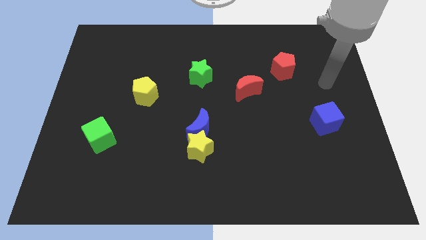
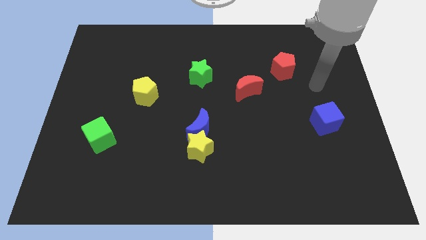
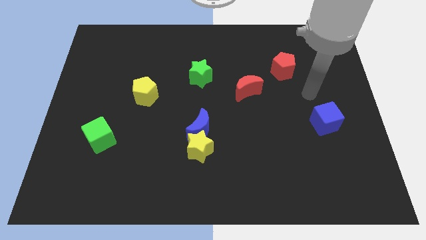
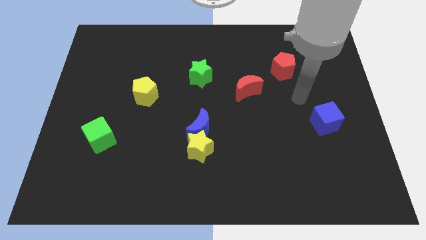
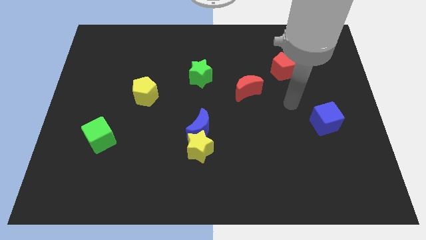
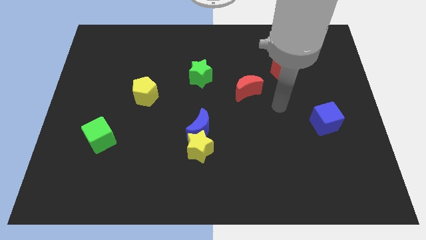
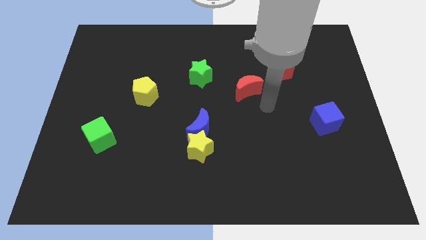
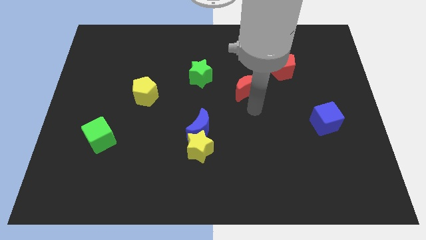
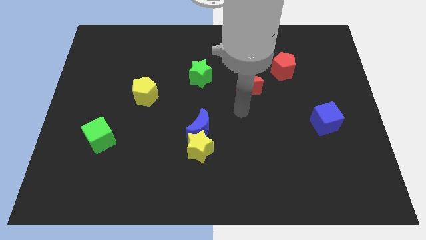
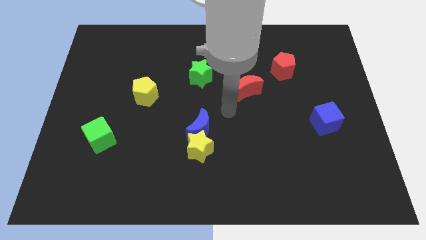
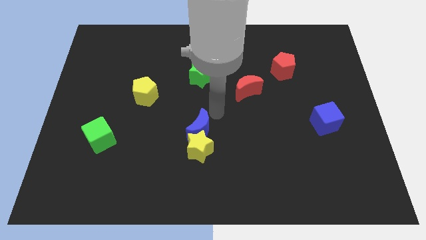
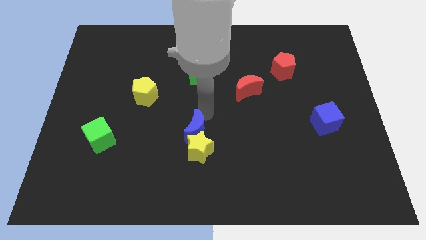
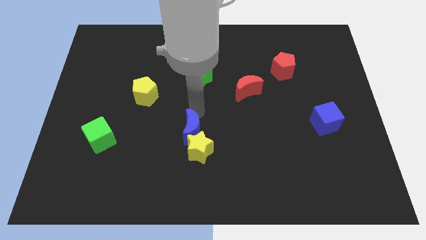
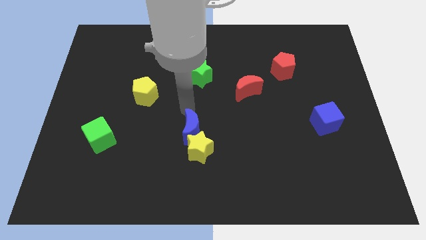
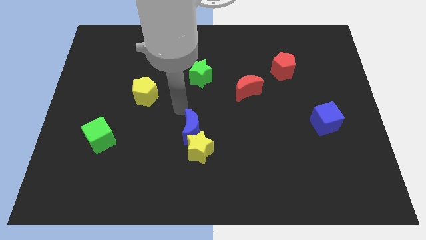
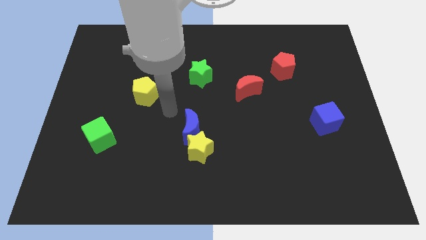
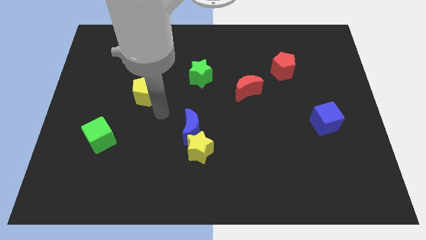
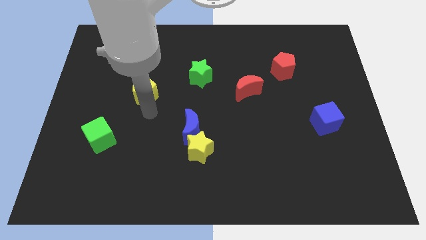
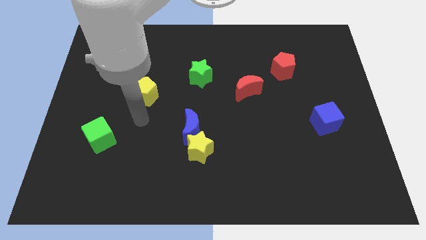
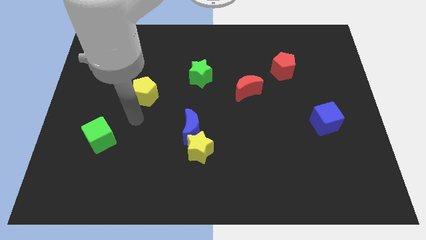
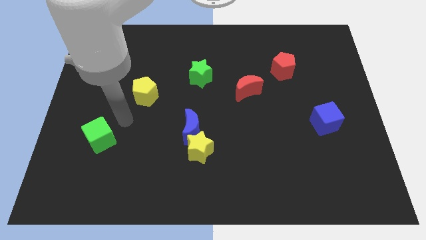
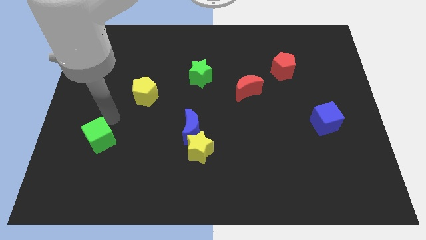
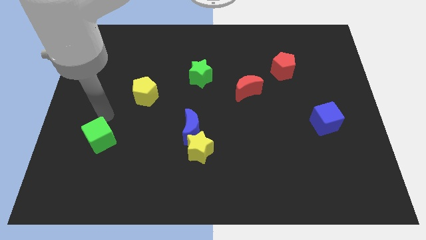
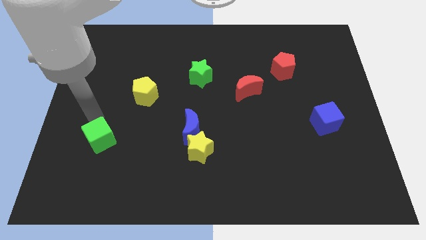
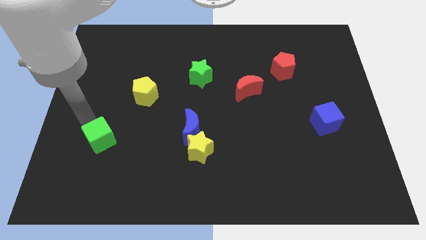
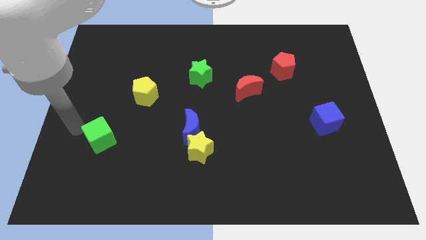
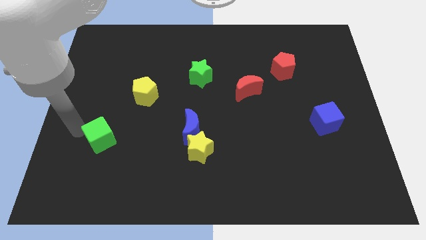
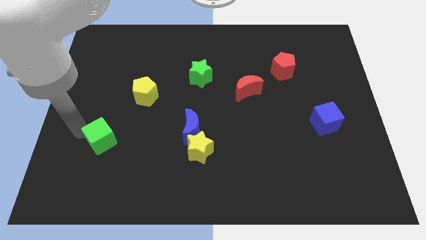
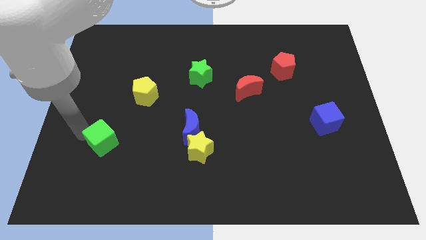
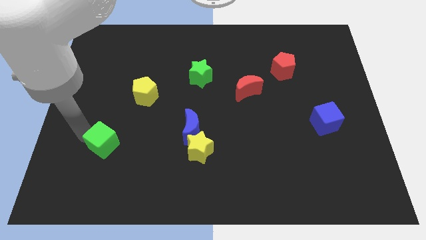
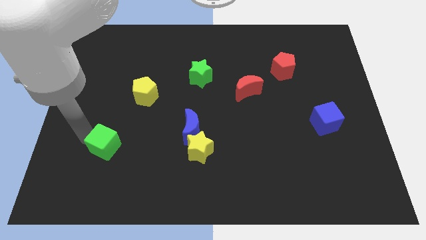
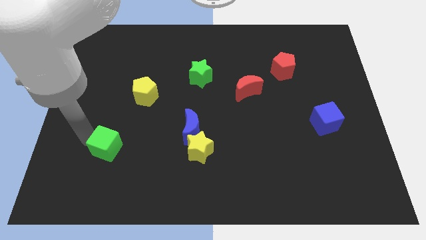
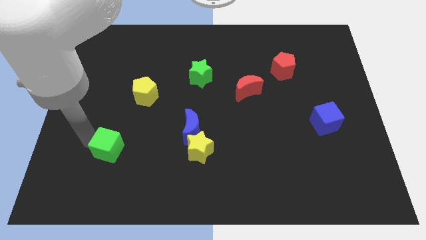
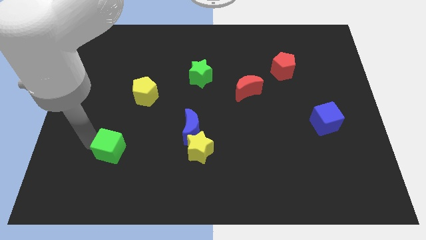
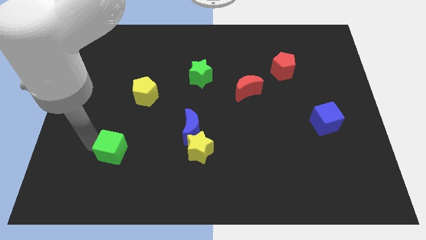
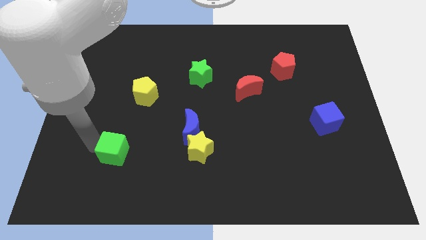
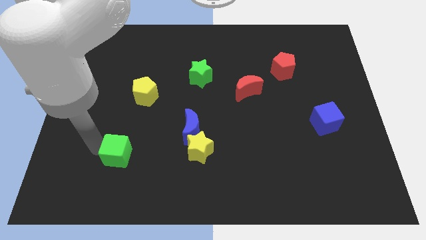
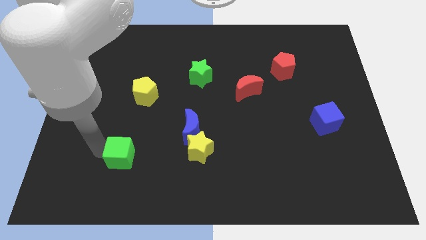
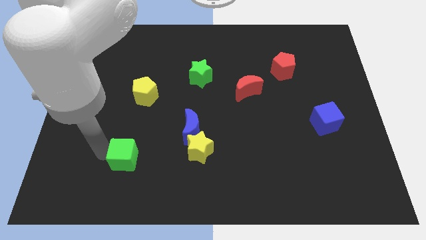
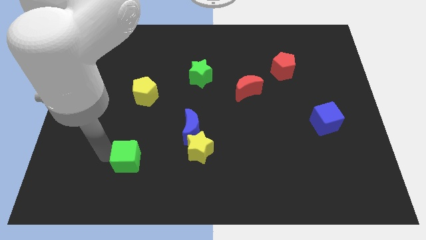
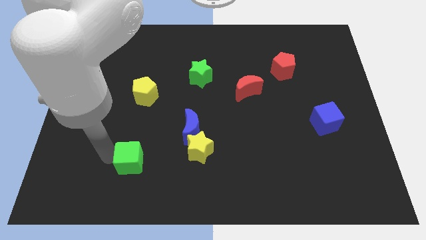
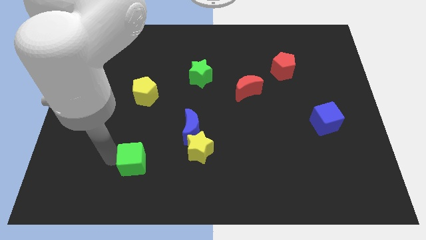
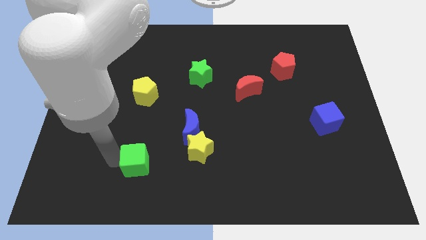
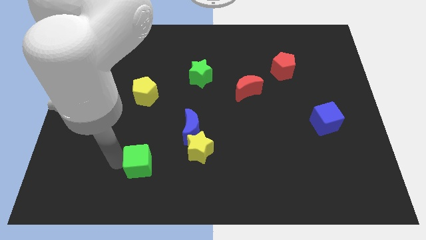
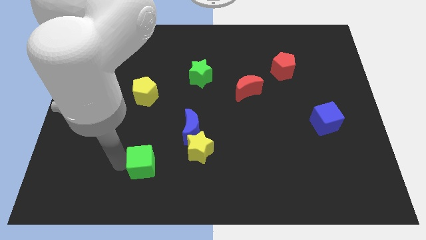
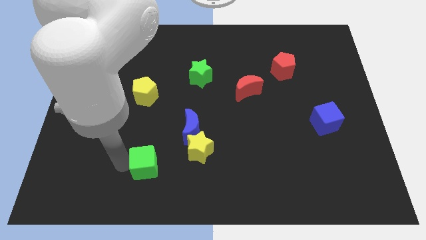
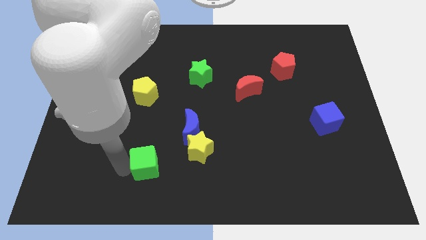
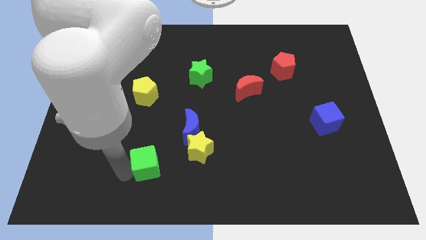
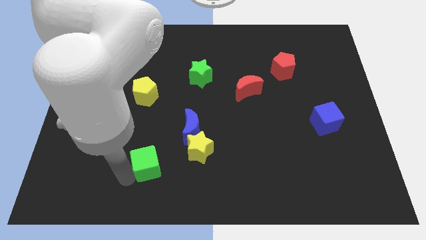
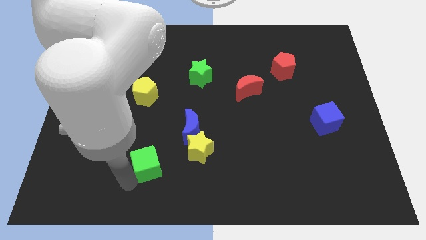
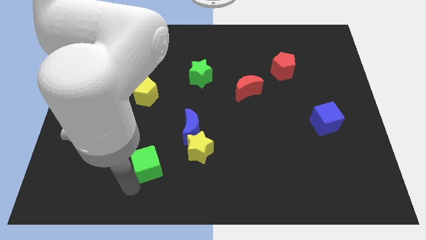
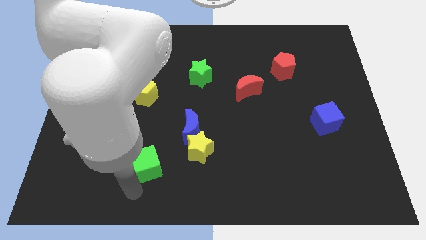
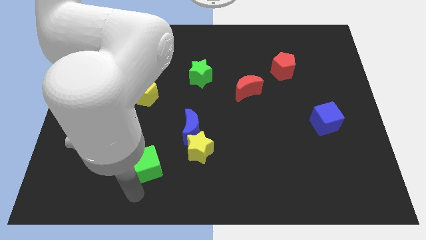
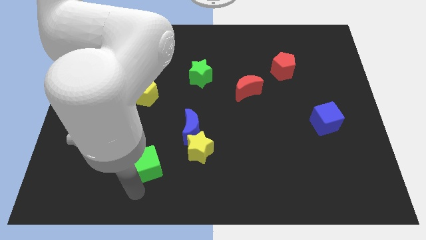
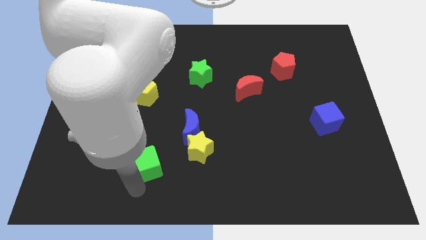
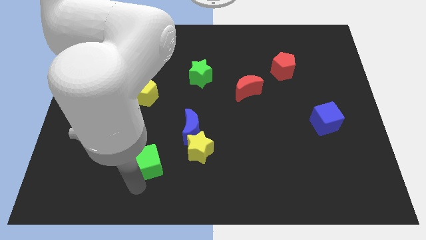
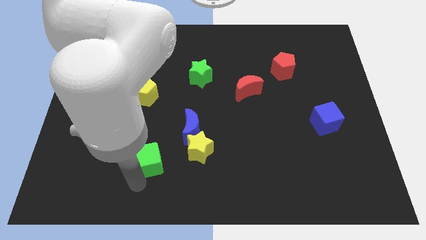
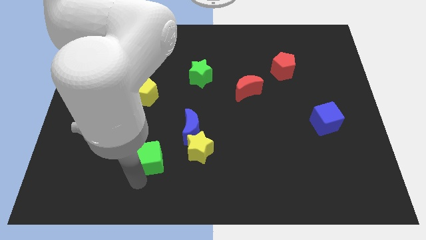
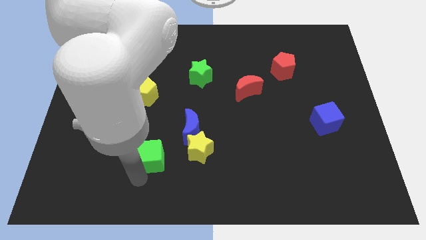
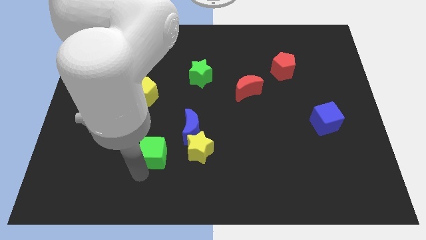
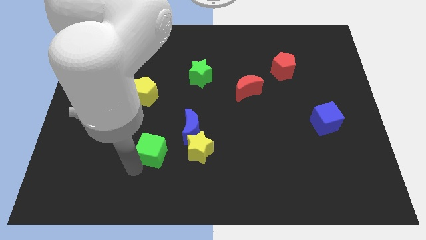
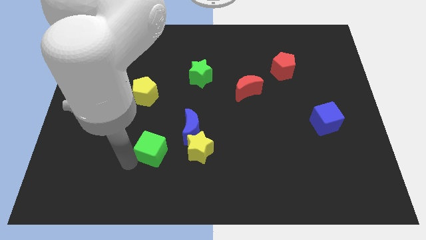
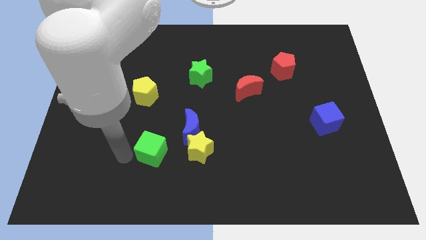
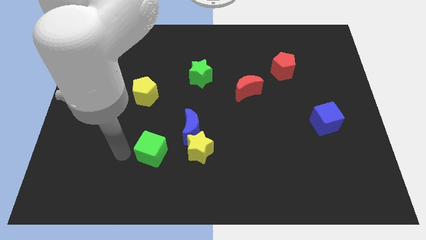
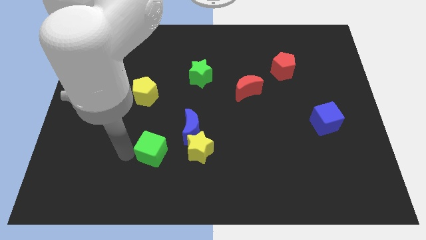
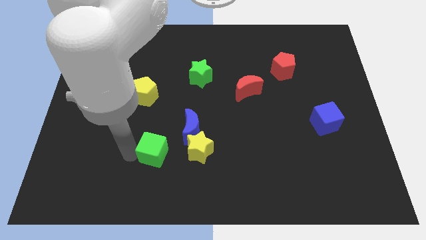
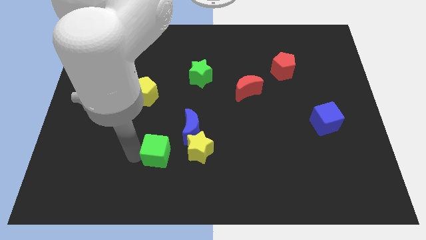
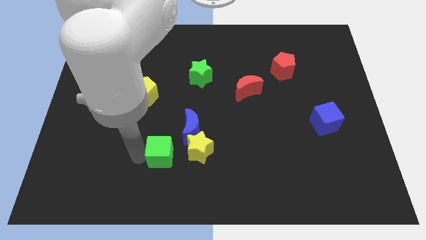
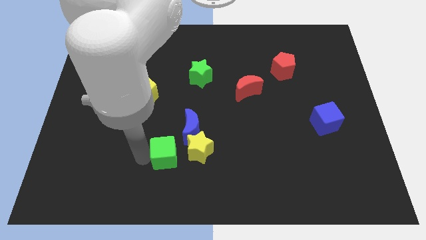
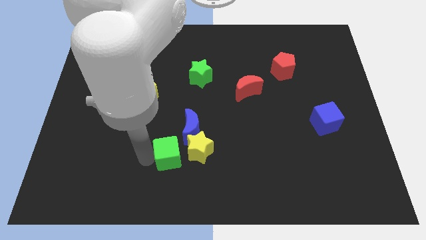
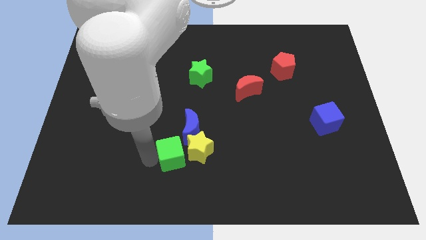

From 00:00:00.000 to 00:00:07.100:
slide the green cube to the yellow star

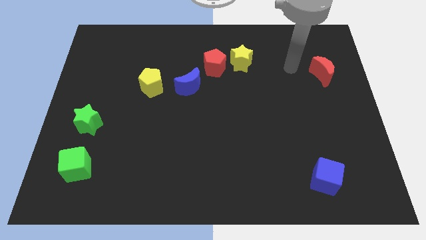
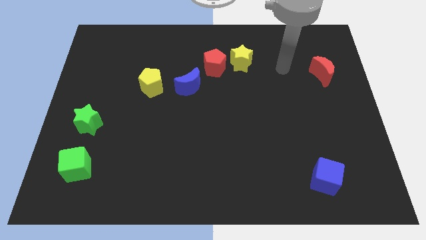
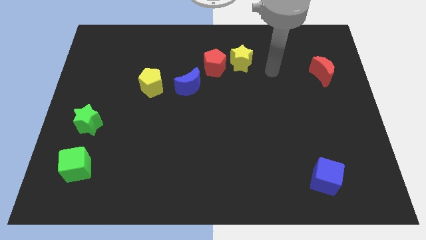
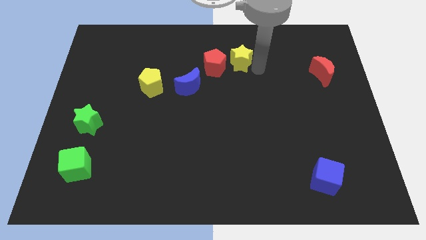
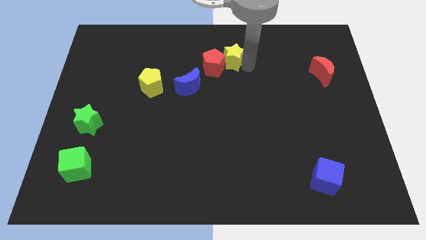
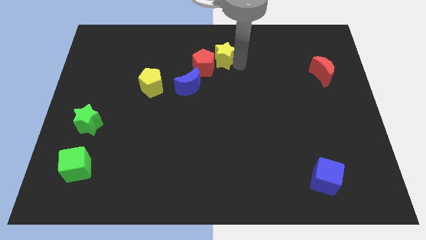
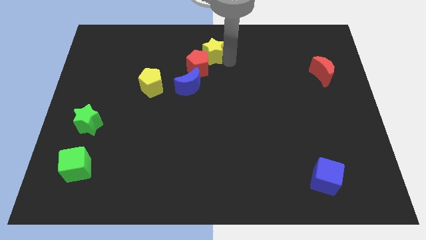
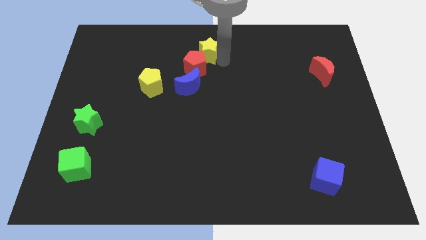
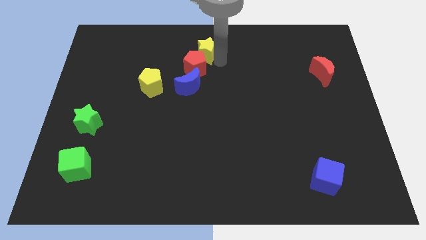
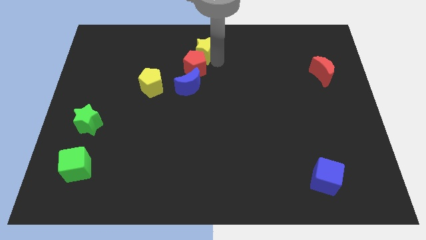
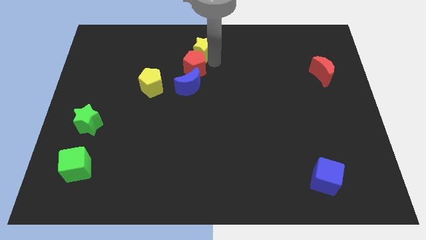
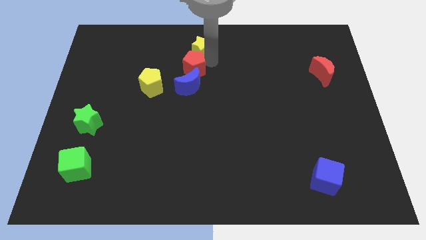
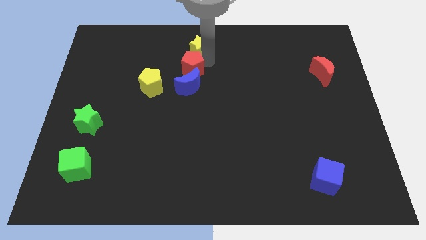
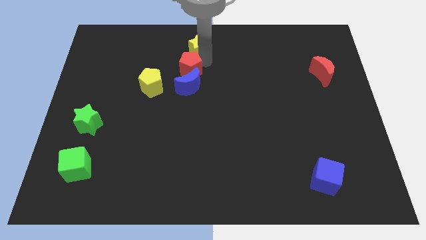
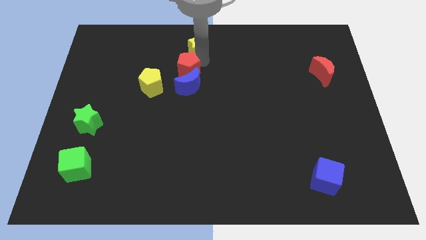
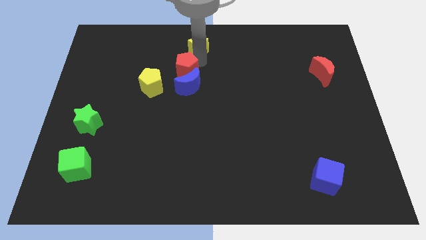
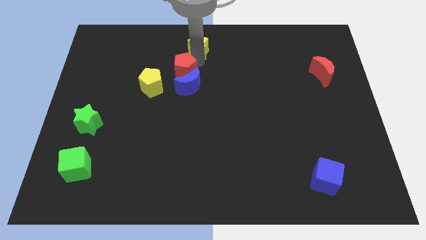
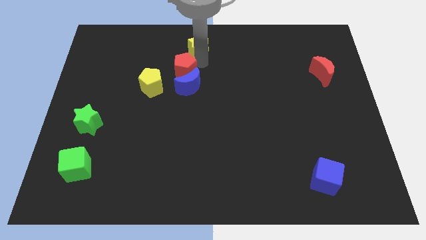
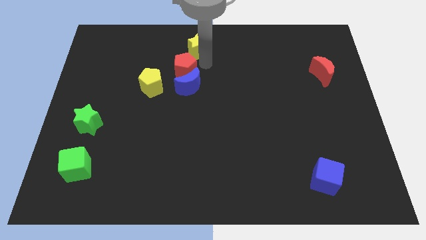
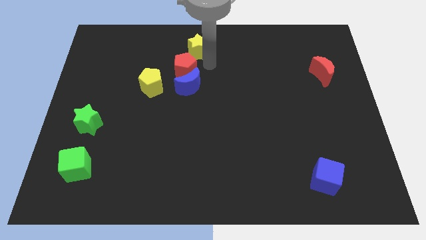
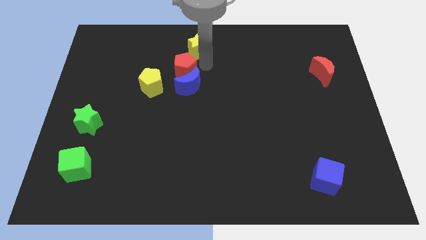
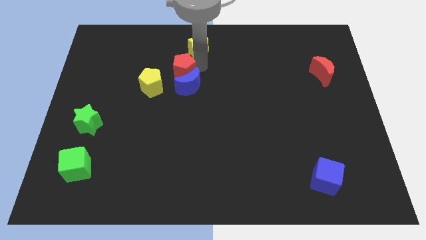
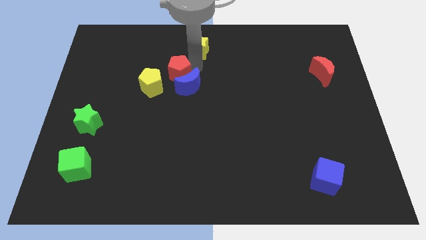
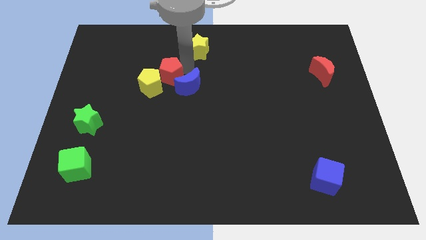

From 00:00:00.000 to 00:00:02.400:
push the red pentagon towards the yellow pentagon
